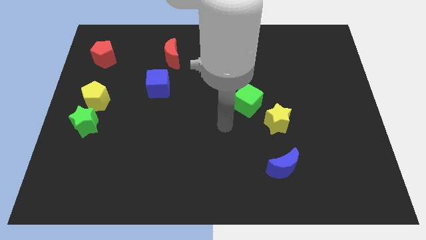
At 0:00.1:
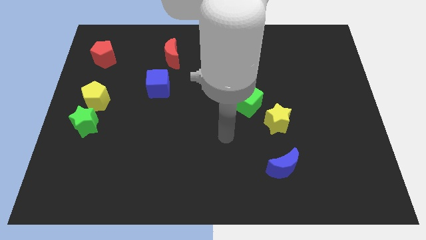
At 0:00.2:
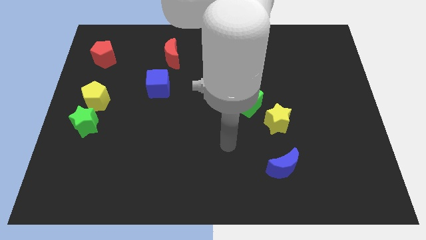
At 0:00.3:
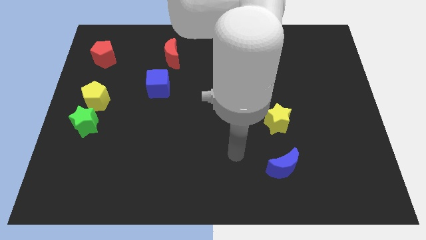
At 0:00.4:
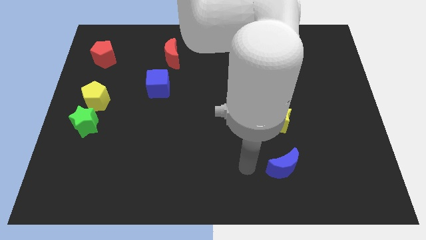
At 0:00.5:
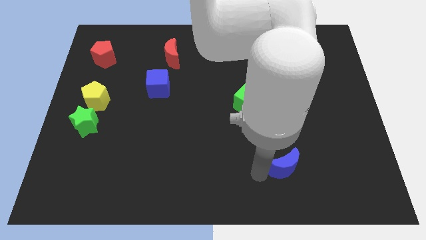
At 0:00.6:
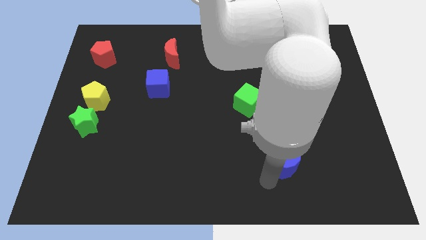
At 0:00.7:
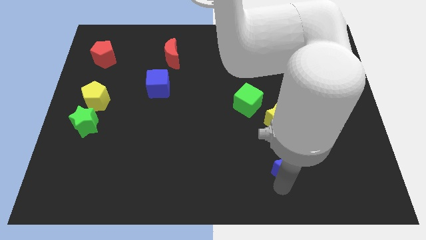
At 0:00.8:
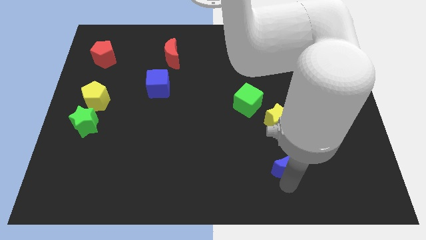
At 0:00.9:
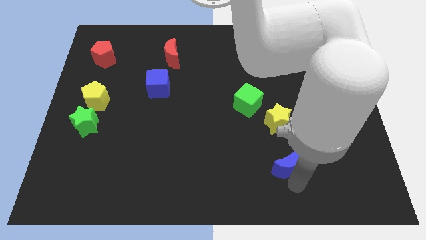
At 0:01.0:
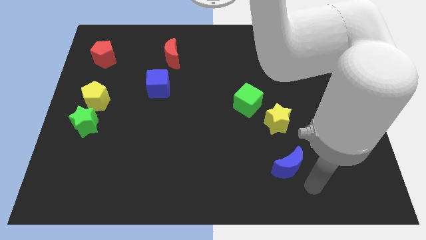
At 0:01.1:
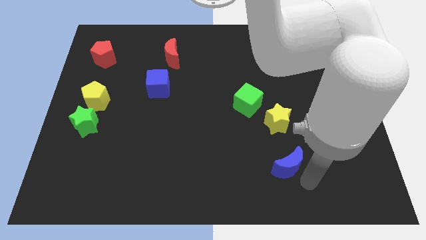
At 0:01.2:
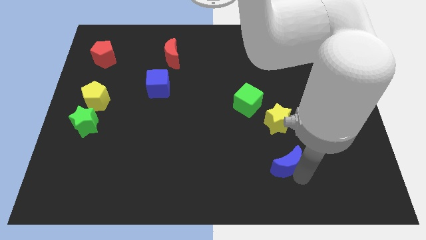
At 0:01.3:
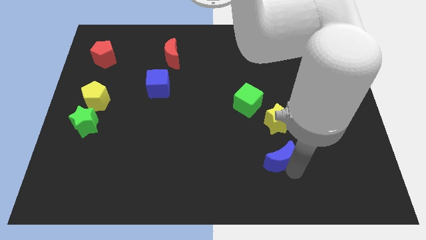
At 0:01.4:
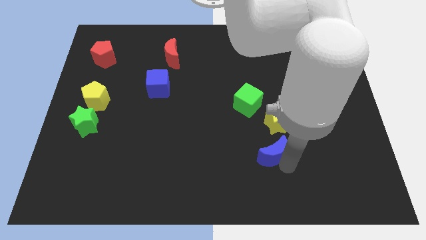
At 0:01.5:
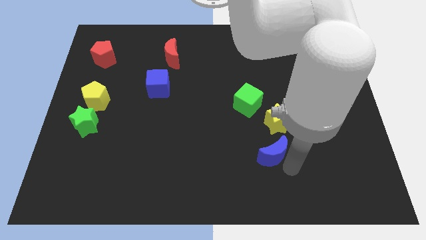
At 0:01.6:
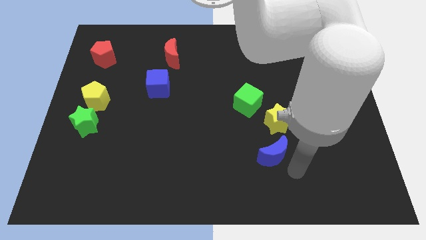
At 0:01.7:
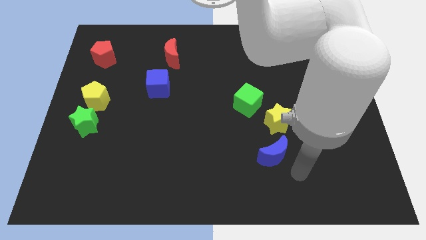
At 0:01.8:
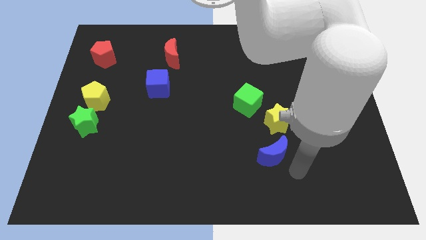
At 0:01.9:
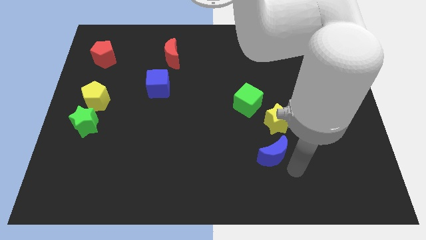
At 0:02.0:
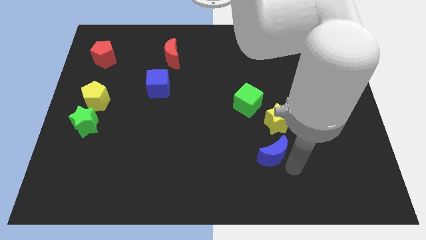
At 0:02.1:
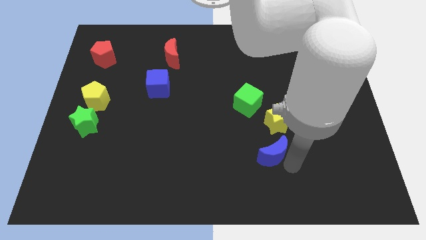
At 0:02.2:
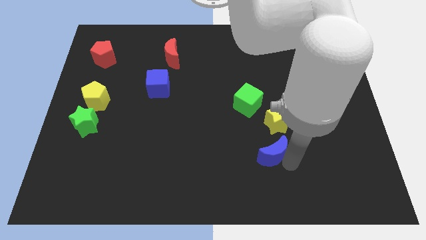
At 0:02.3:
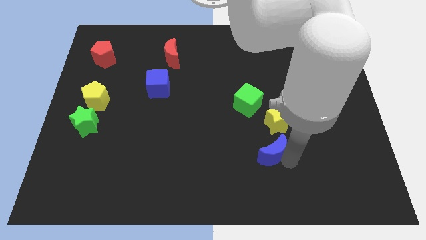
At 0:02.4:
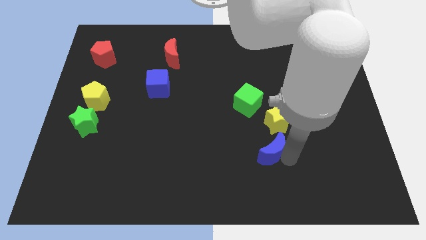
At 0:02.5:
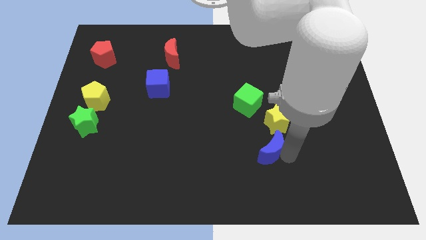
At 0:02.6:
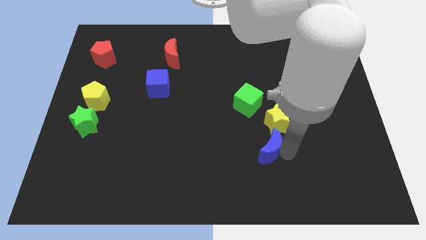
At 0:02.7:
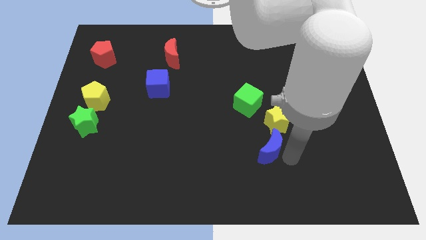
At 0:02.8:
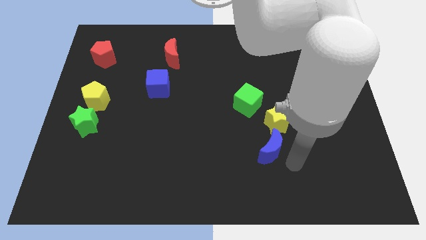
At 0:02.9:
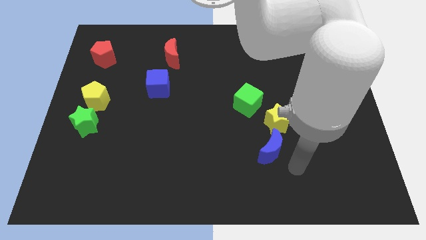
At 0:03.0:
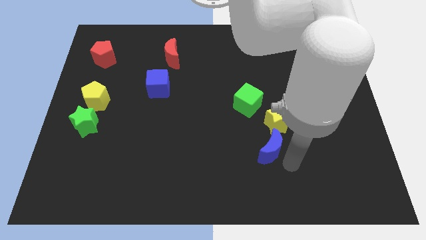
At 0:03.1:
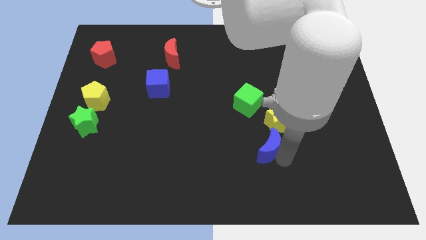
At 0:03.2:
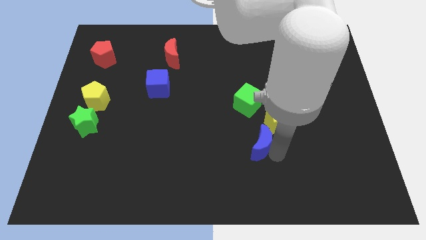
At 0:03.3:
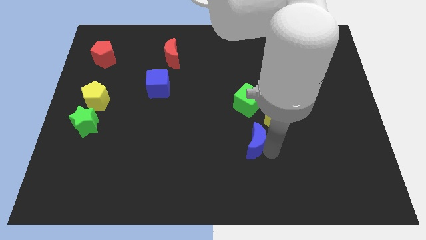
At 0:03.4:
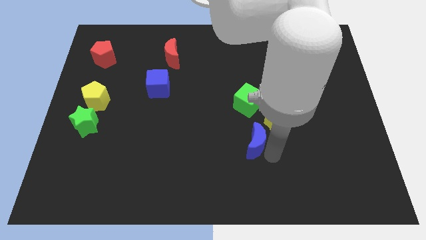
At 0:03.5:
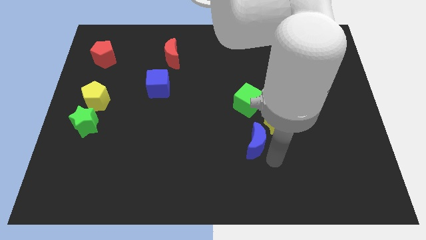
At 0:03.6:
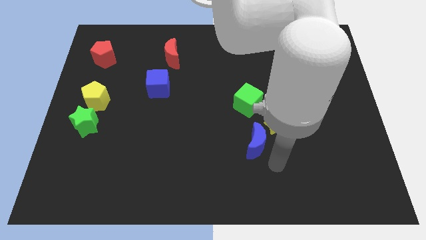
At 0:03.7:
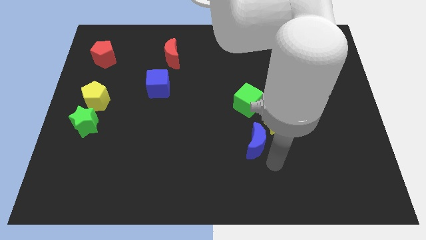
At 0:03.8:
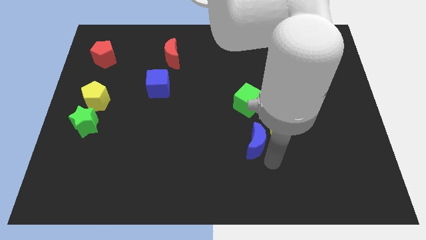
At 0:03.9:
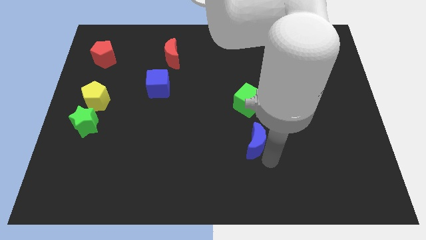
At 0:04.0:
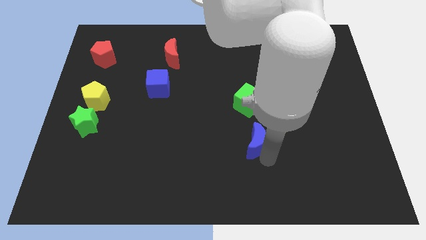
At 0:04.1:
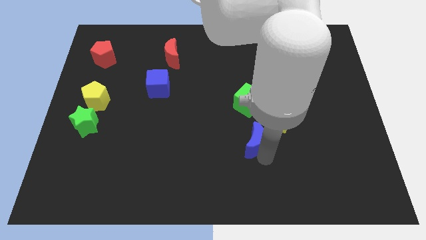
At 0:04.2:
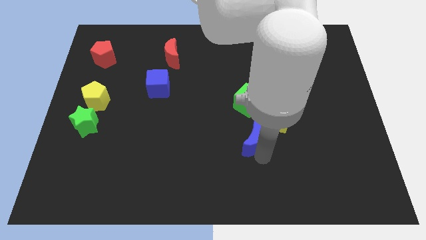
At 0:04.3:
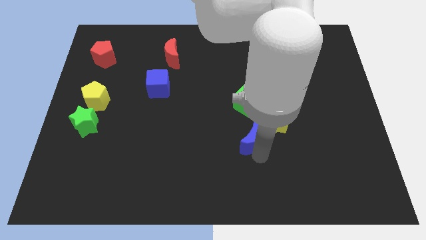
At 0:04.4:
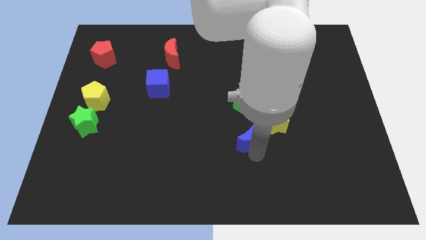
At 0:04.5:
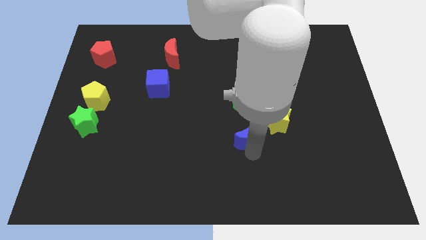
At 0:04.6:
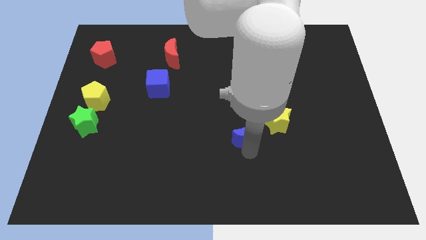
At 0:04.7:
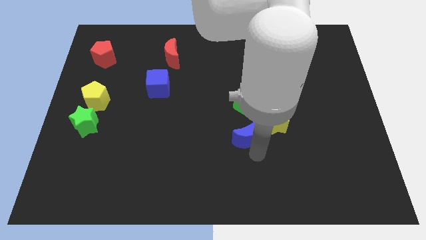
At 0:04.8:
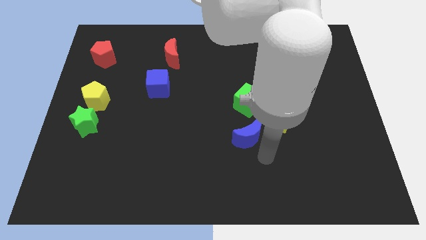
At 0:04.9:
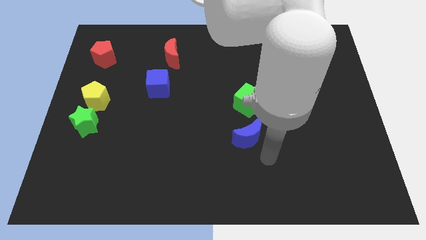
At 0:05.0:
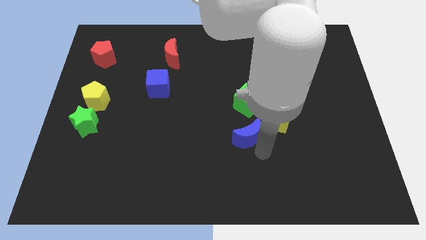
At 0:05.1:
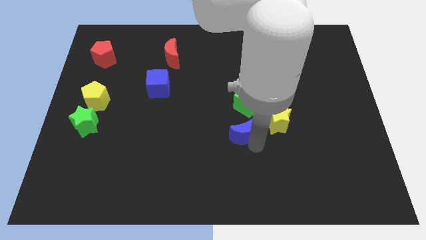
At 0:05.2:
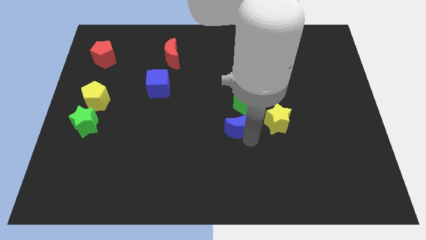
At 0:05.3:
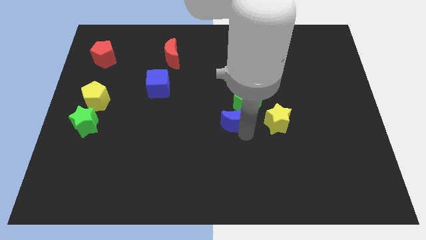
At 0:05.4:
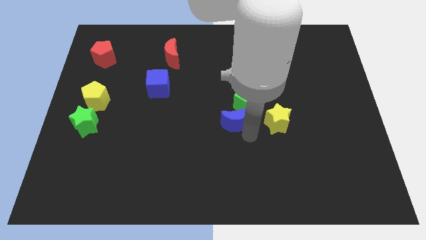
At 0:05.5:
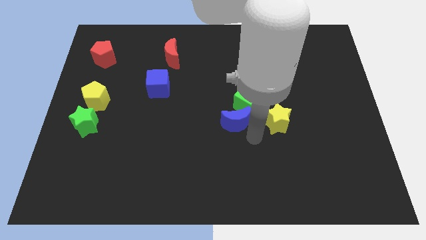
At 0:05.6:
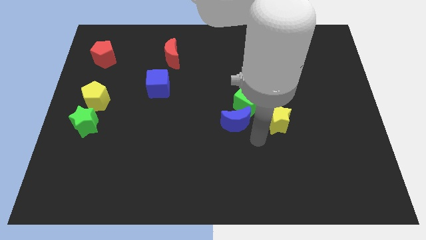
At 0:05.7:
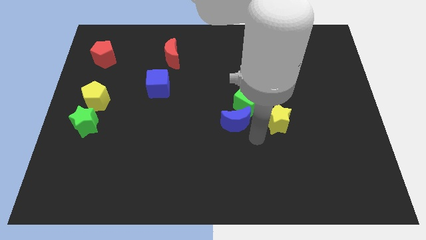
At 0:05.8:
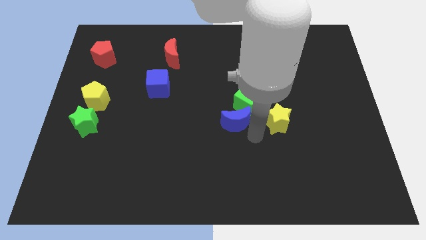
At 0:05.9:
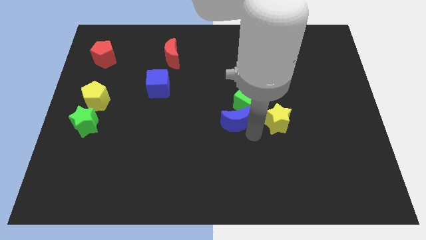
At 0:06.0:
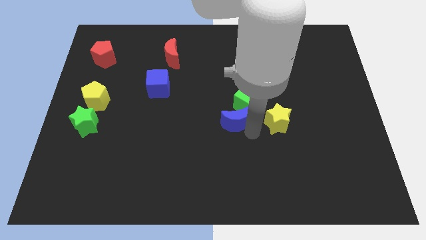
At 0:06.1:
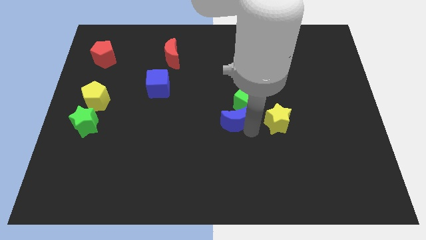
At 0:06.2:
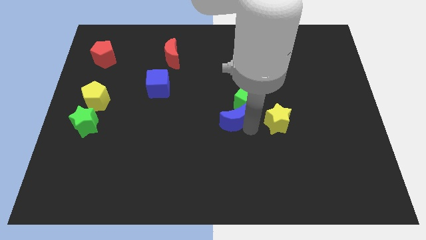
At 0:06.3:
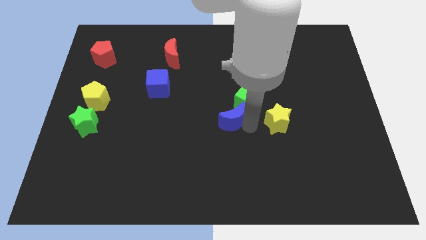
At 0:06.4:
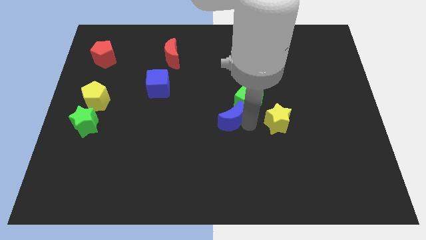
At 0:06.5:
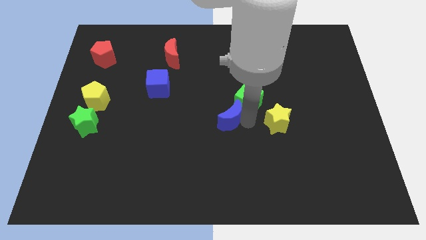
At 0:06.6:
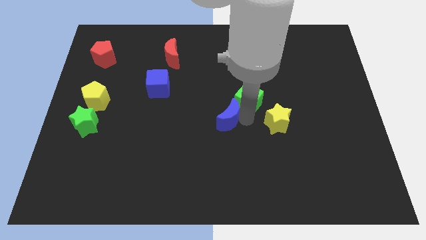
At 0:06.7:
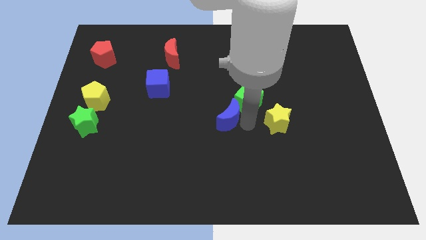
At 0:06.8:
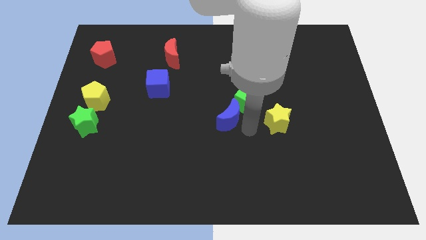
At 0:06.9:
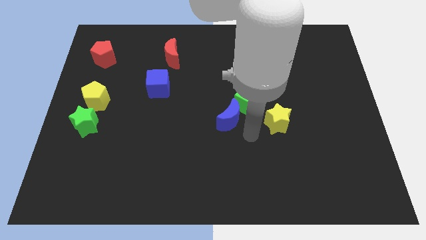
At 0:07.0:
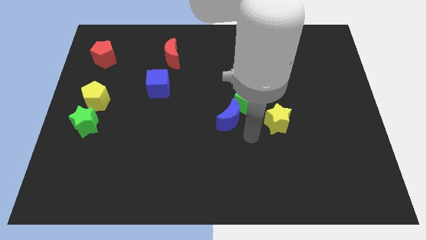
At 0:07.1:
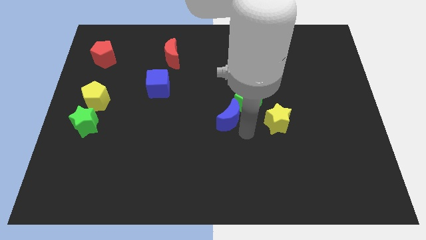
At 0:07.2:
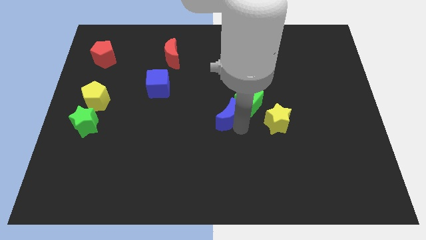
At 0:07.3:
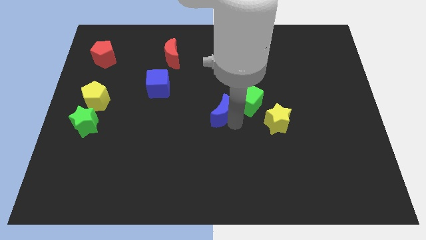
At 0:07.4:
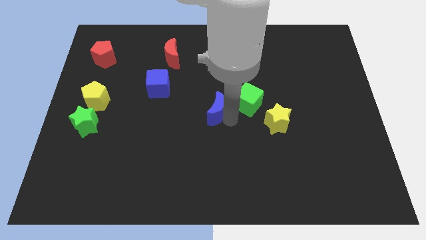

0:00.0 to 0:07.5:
move the blue moon upwards and to the left

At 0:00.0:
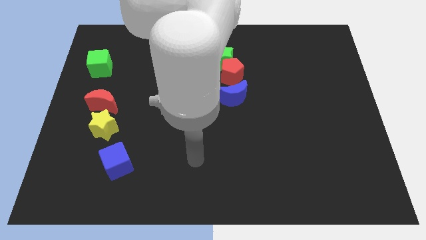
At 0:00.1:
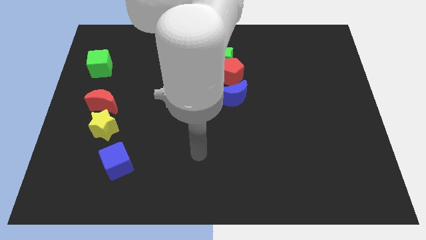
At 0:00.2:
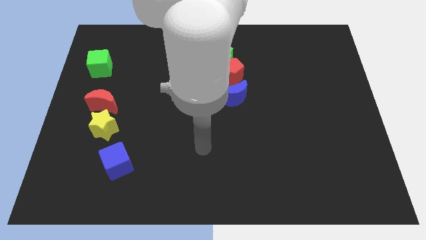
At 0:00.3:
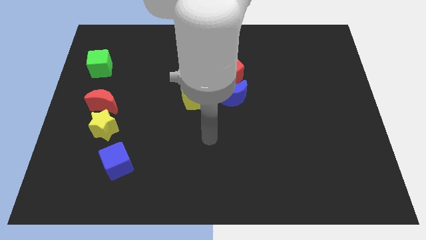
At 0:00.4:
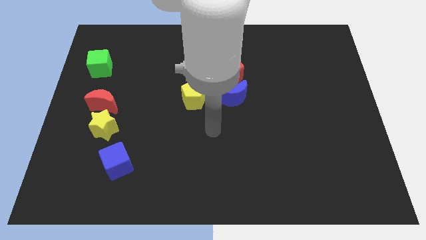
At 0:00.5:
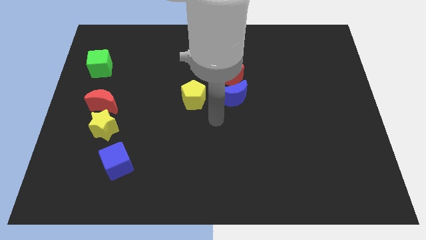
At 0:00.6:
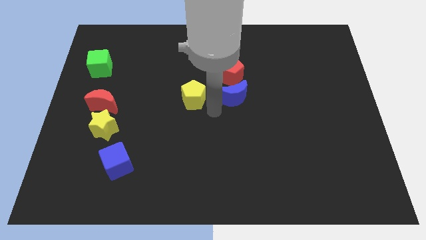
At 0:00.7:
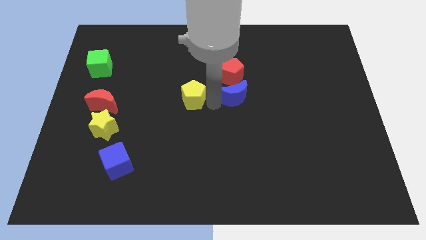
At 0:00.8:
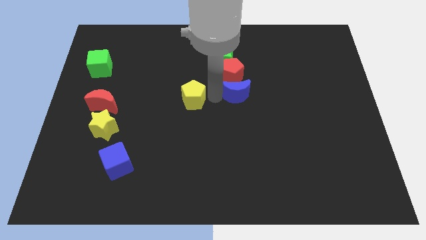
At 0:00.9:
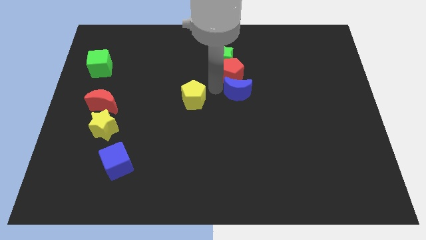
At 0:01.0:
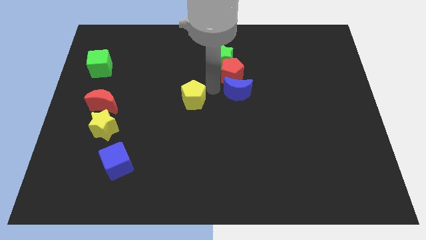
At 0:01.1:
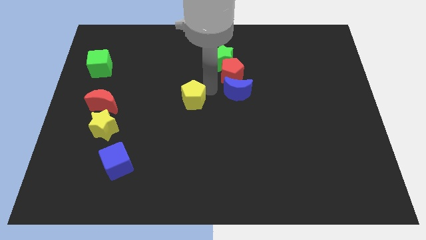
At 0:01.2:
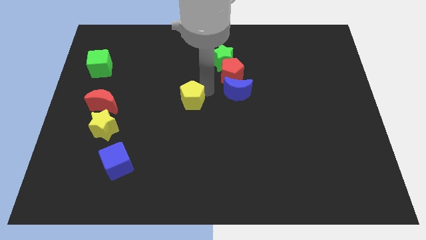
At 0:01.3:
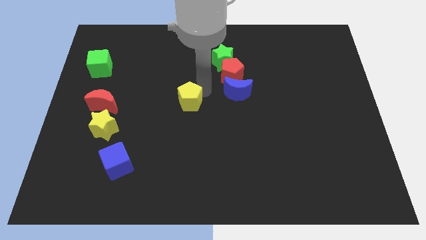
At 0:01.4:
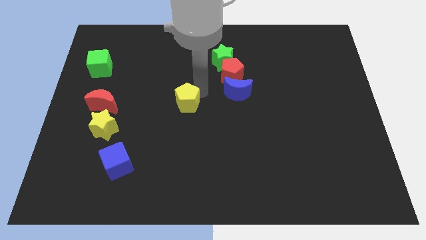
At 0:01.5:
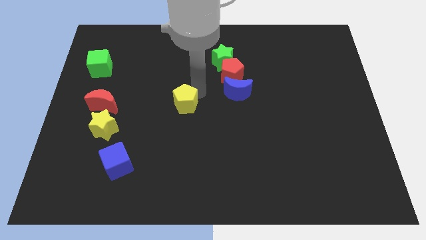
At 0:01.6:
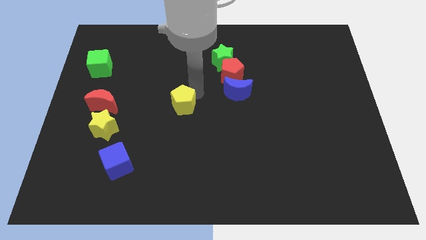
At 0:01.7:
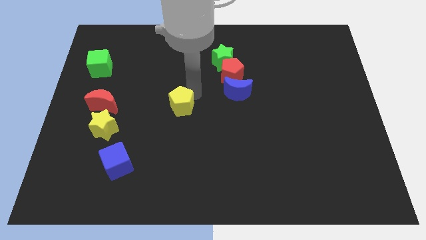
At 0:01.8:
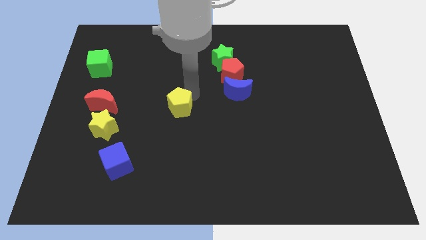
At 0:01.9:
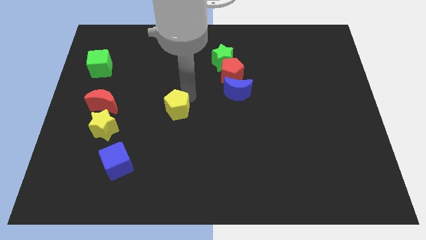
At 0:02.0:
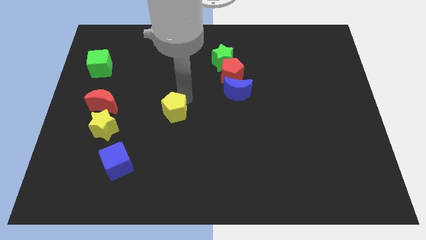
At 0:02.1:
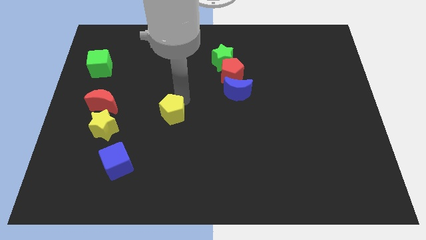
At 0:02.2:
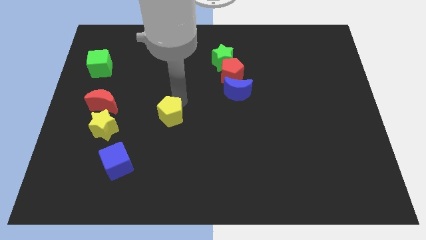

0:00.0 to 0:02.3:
push the yellow pentagon a bit downwards and then left
